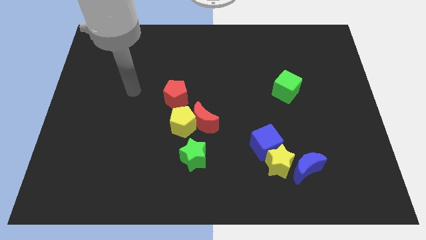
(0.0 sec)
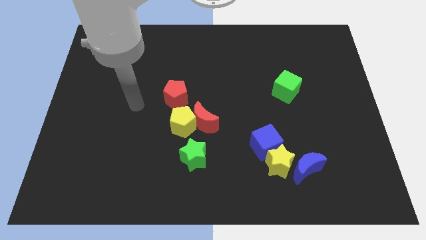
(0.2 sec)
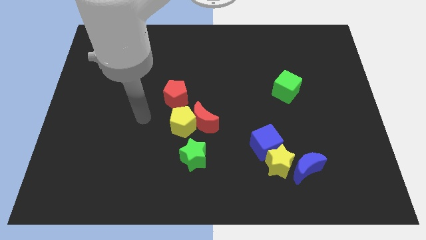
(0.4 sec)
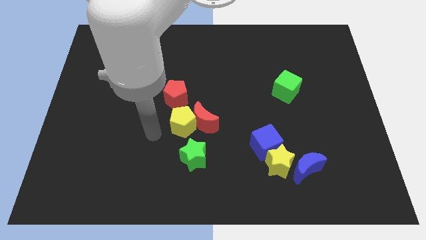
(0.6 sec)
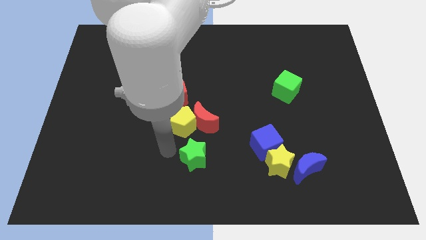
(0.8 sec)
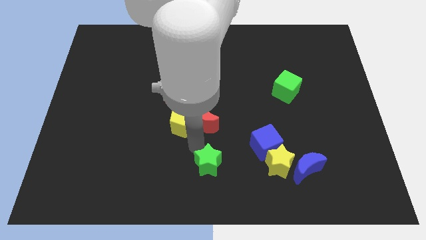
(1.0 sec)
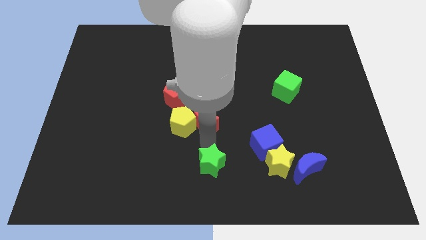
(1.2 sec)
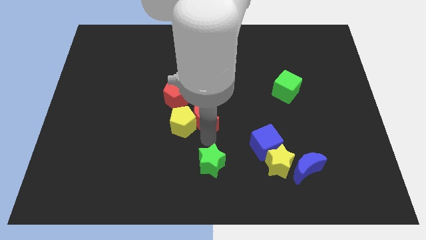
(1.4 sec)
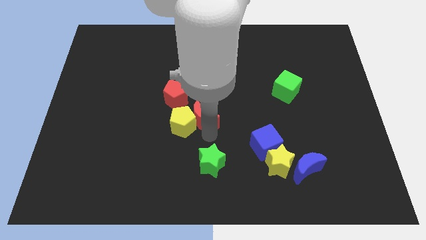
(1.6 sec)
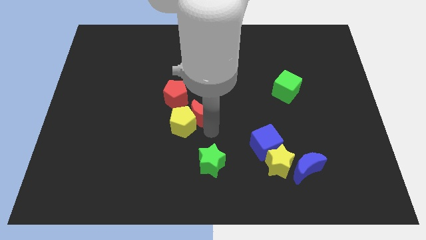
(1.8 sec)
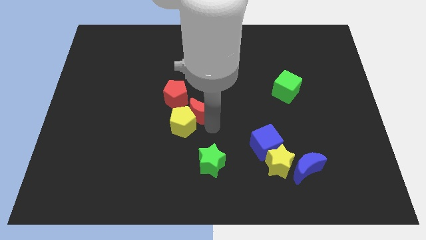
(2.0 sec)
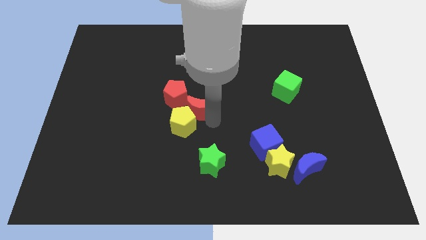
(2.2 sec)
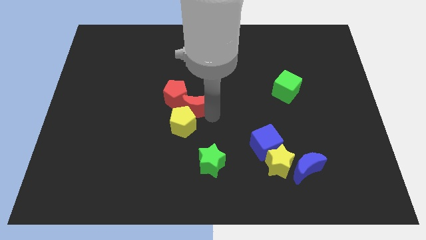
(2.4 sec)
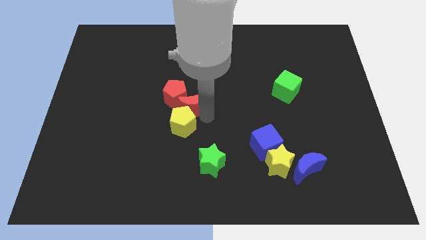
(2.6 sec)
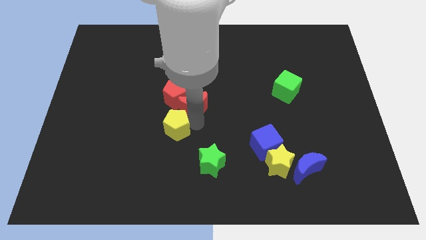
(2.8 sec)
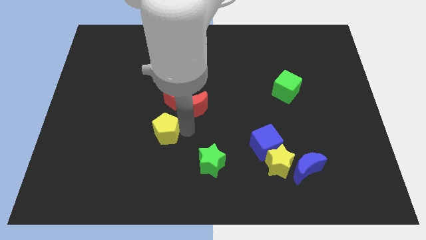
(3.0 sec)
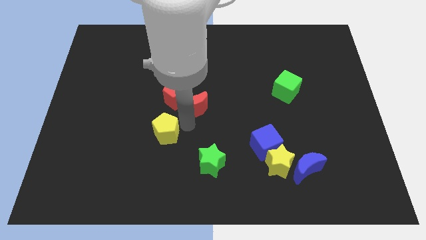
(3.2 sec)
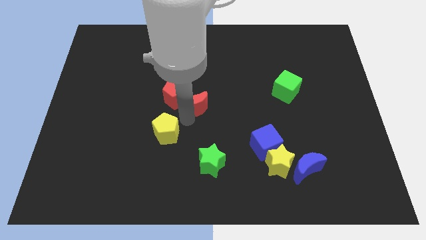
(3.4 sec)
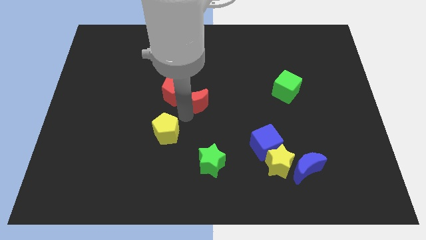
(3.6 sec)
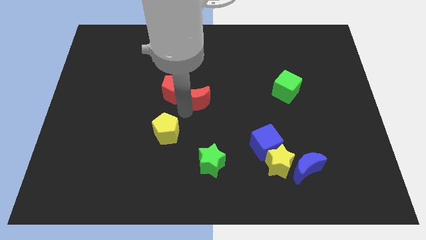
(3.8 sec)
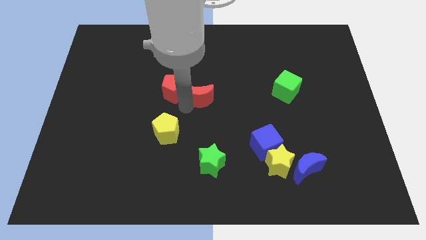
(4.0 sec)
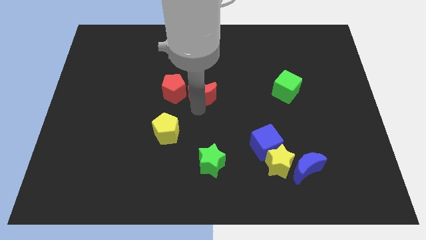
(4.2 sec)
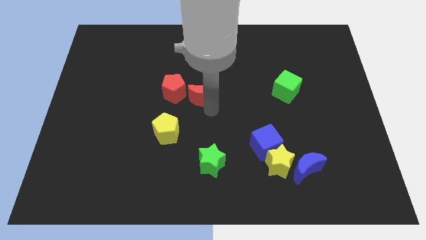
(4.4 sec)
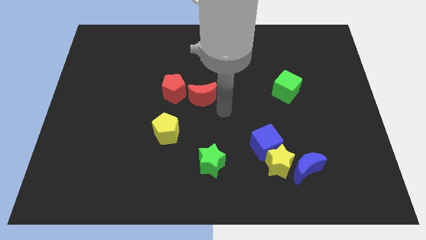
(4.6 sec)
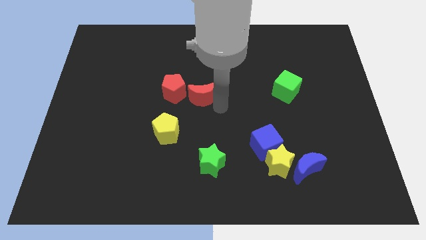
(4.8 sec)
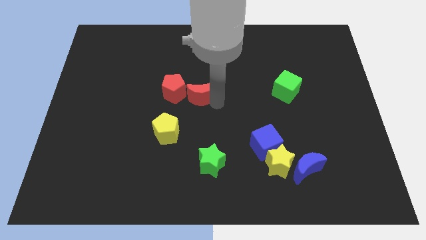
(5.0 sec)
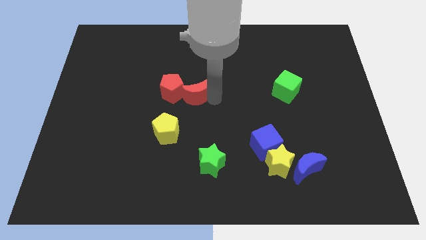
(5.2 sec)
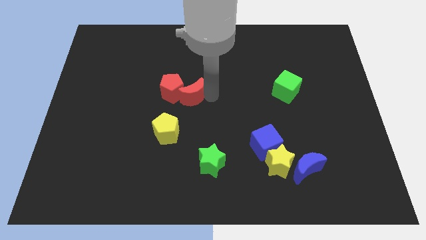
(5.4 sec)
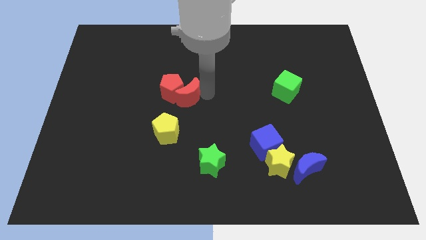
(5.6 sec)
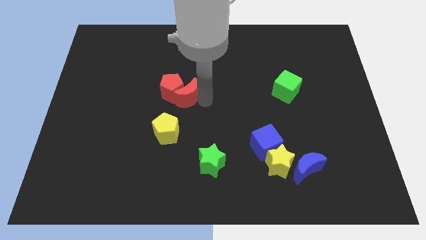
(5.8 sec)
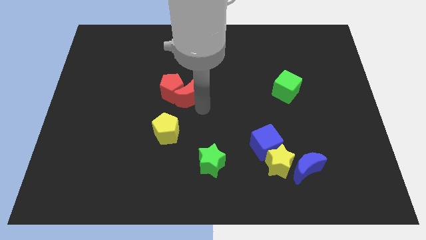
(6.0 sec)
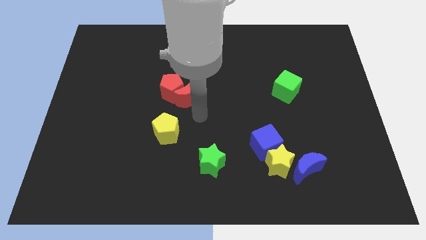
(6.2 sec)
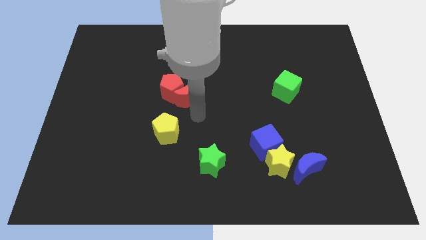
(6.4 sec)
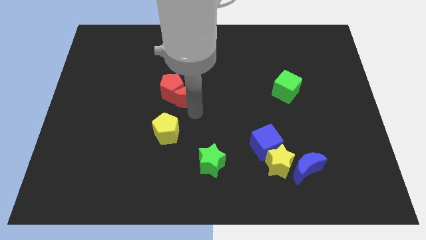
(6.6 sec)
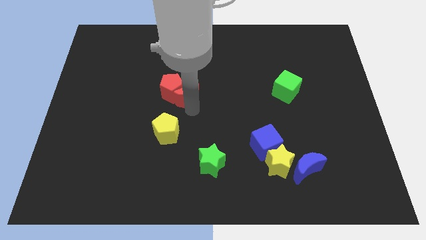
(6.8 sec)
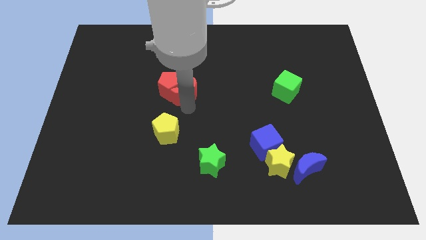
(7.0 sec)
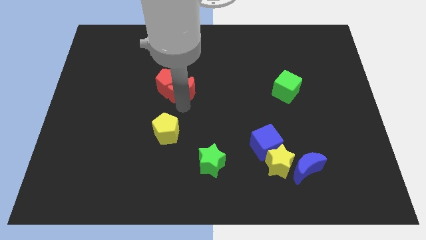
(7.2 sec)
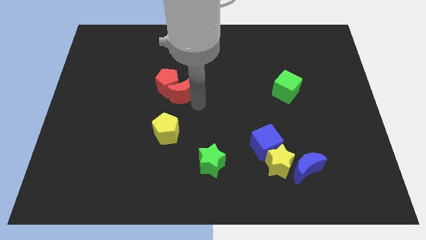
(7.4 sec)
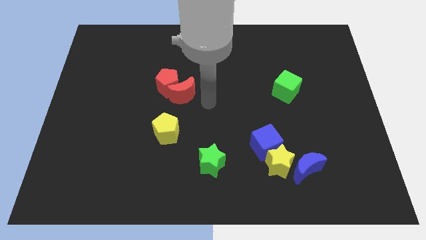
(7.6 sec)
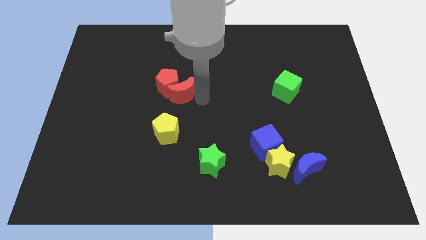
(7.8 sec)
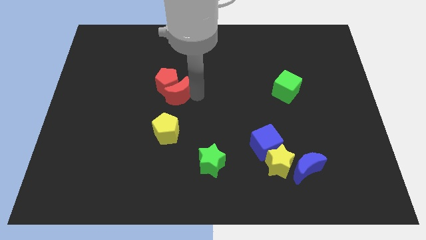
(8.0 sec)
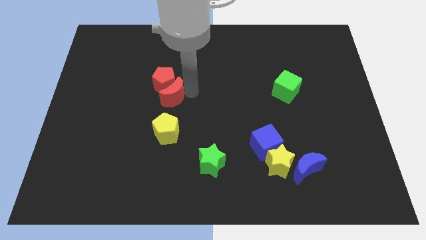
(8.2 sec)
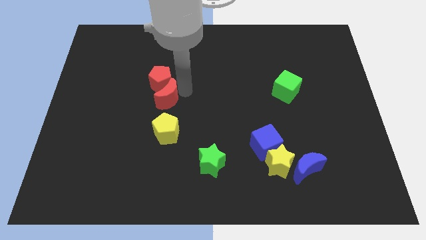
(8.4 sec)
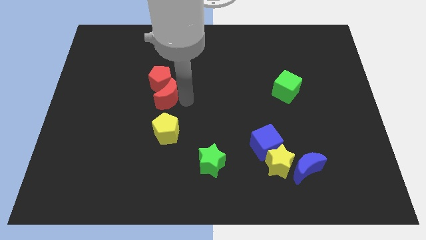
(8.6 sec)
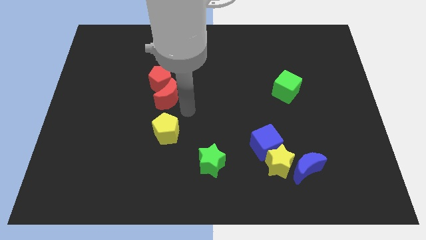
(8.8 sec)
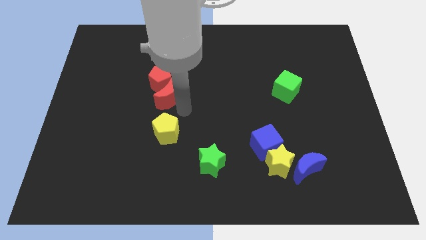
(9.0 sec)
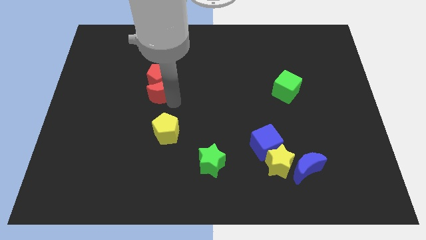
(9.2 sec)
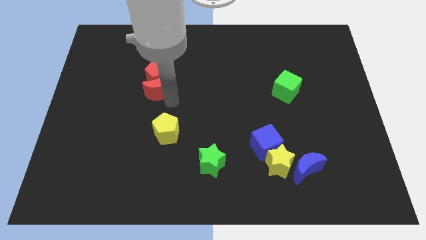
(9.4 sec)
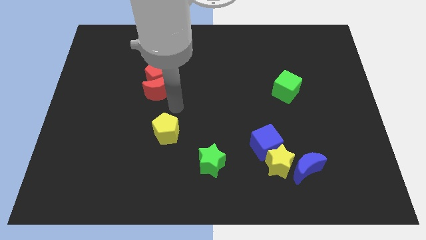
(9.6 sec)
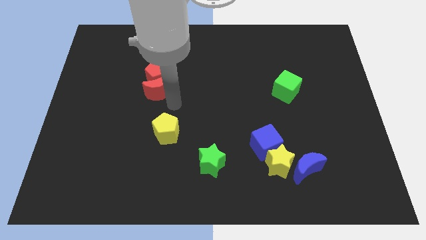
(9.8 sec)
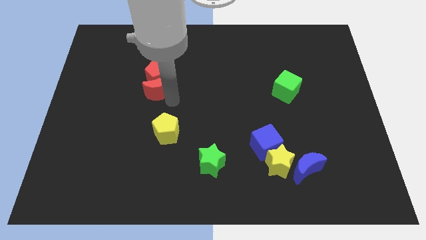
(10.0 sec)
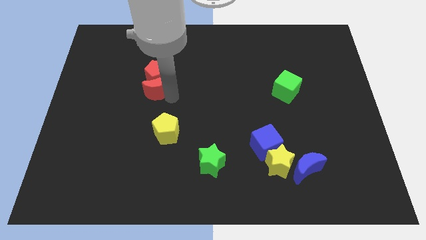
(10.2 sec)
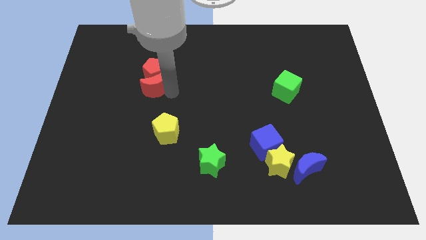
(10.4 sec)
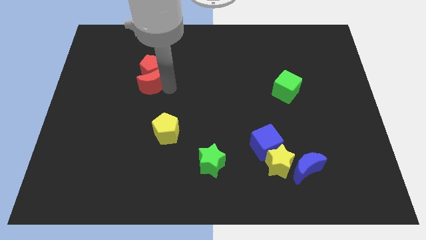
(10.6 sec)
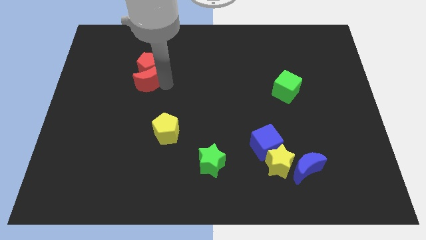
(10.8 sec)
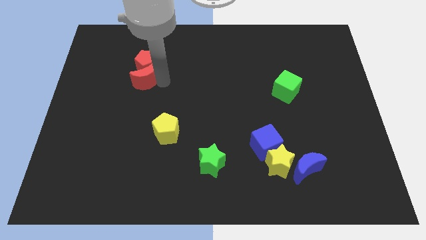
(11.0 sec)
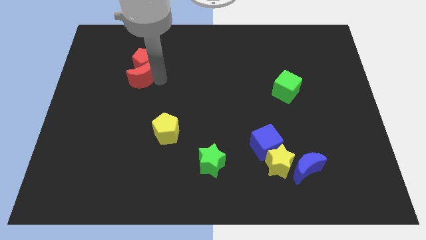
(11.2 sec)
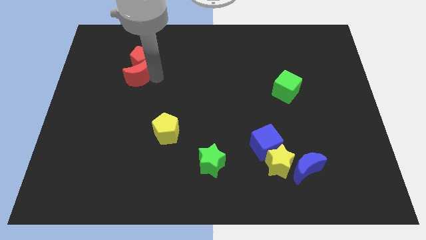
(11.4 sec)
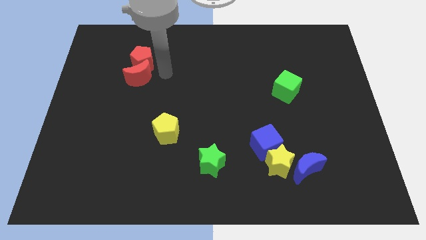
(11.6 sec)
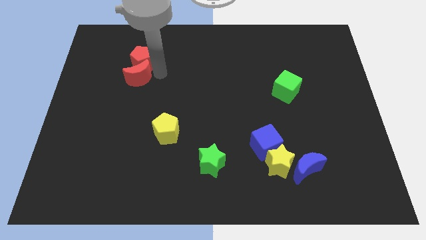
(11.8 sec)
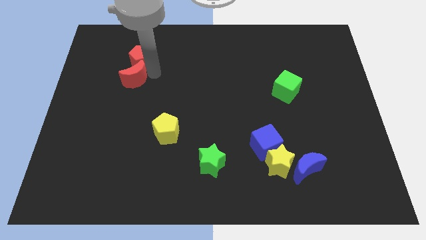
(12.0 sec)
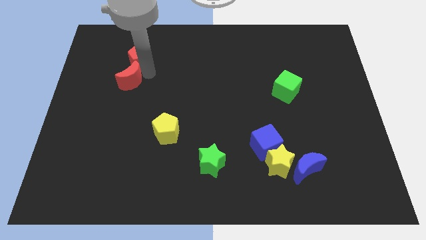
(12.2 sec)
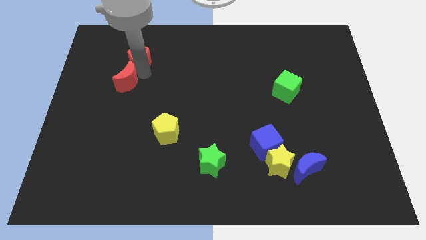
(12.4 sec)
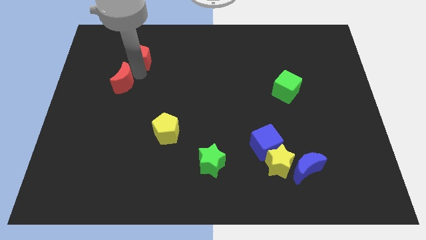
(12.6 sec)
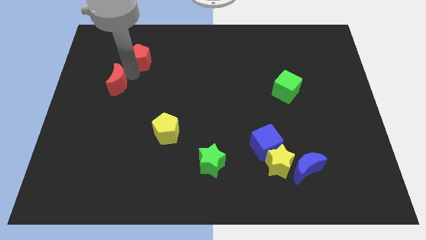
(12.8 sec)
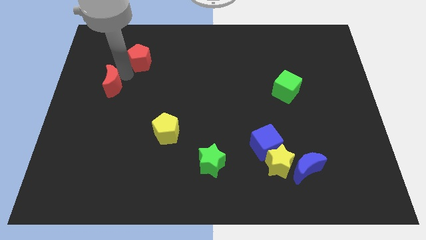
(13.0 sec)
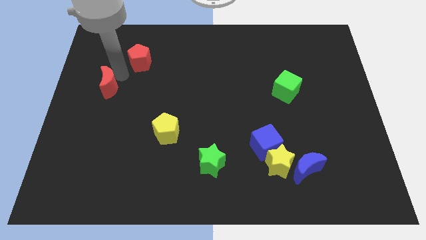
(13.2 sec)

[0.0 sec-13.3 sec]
slide the red moon to the left side

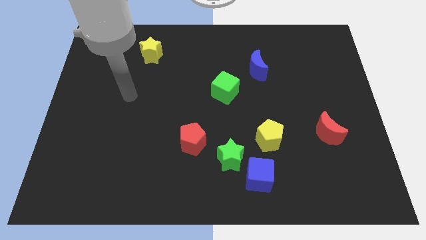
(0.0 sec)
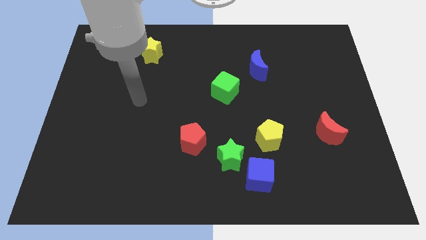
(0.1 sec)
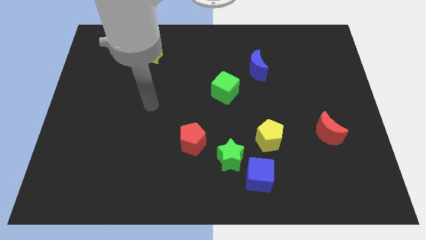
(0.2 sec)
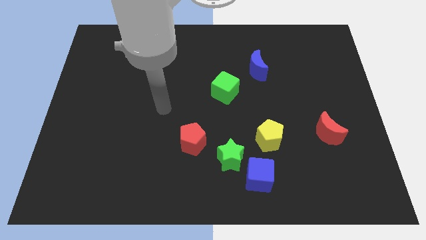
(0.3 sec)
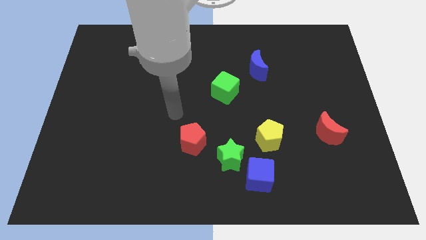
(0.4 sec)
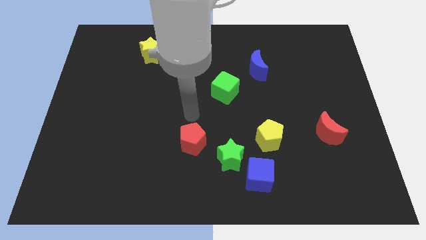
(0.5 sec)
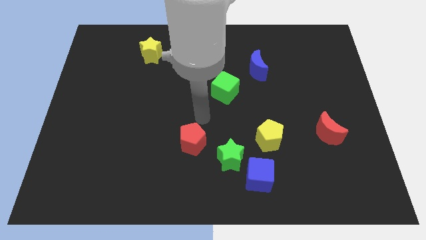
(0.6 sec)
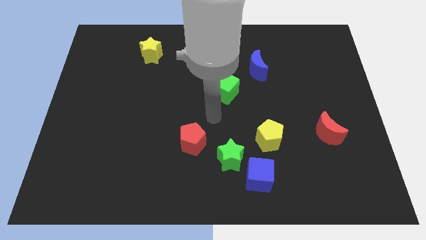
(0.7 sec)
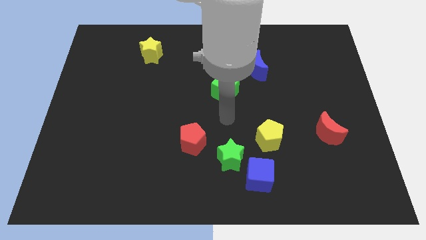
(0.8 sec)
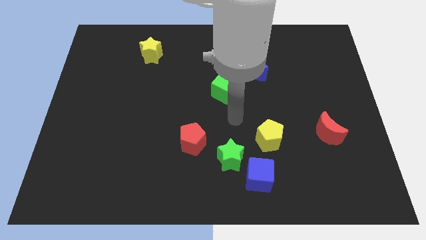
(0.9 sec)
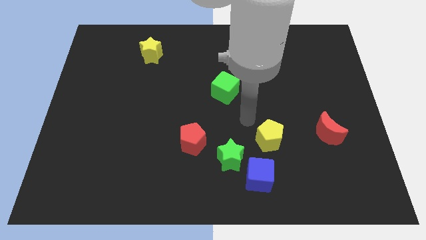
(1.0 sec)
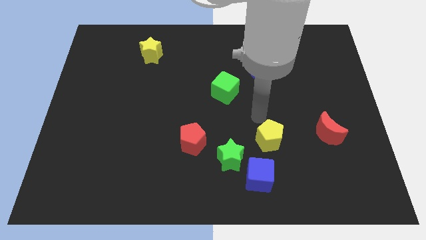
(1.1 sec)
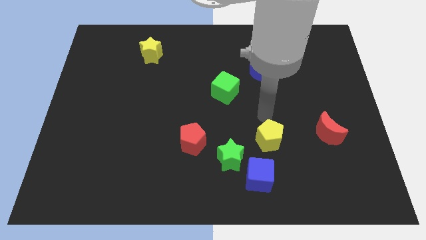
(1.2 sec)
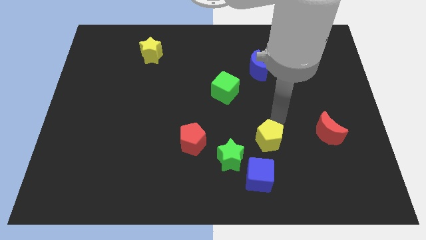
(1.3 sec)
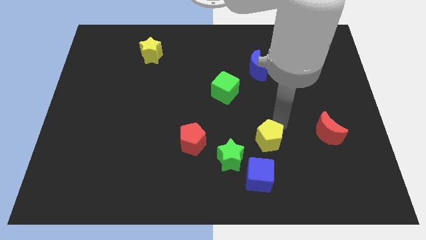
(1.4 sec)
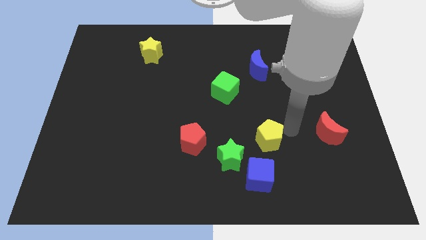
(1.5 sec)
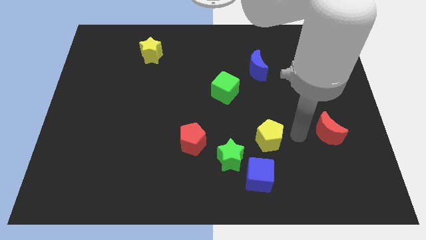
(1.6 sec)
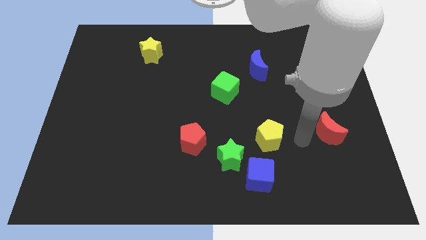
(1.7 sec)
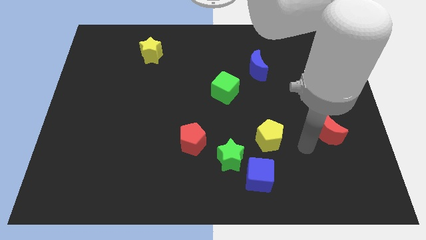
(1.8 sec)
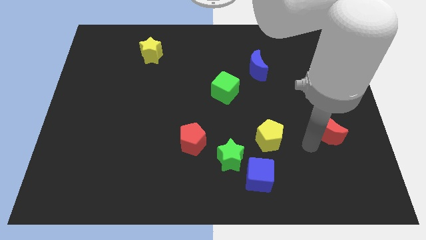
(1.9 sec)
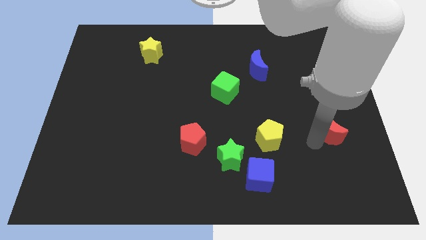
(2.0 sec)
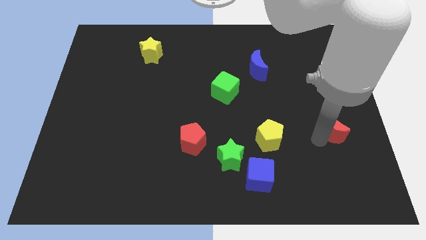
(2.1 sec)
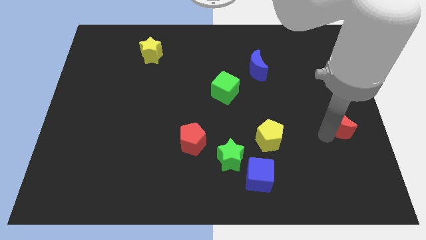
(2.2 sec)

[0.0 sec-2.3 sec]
put the red moon to the center right
